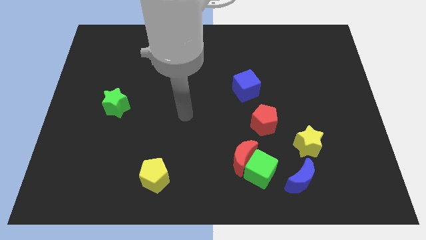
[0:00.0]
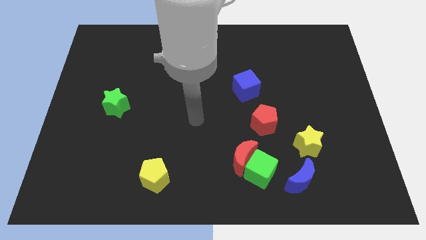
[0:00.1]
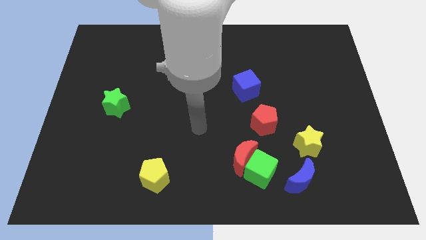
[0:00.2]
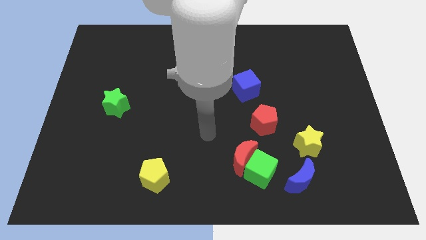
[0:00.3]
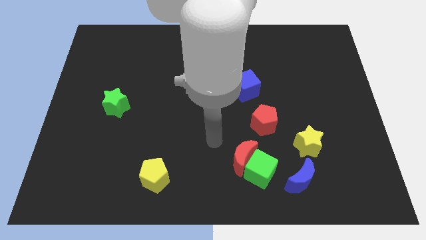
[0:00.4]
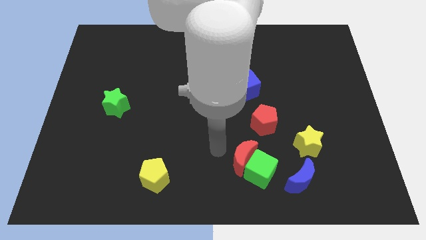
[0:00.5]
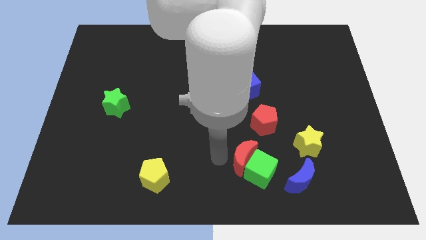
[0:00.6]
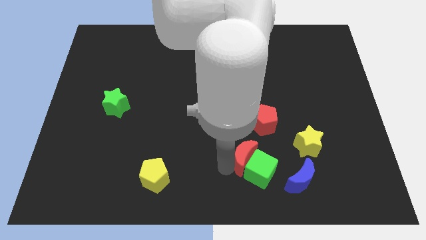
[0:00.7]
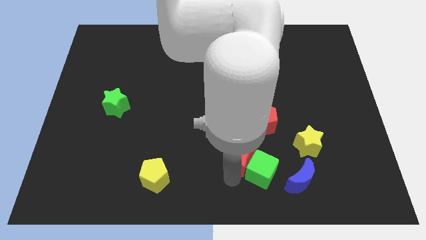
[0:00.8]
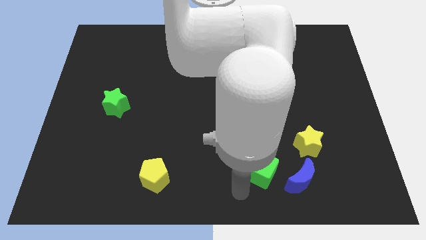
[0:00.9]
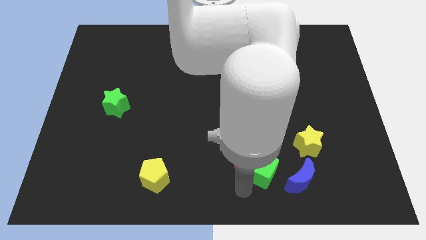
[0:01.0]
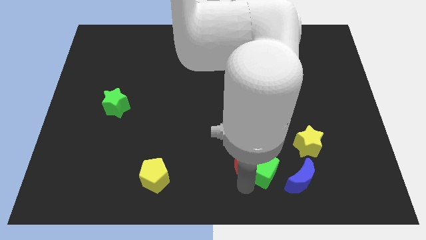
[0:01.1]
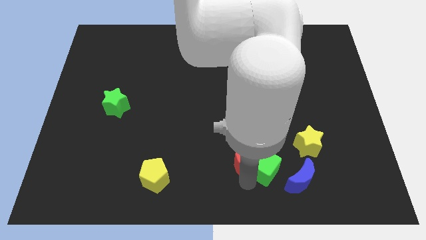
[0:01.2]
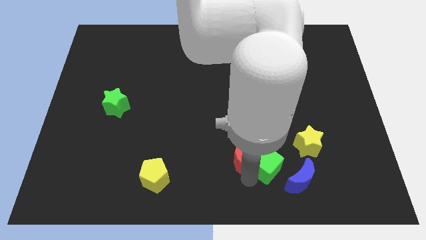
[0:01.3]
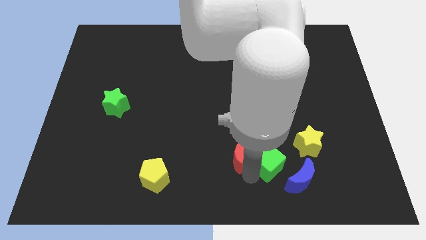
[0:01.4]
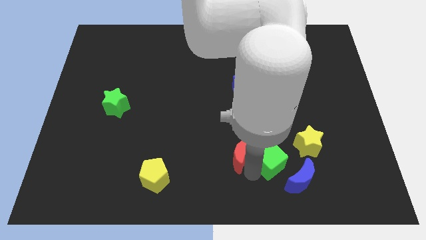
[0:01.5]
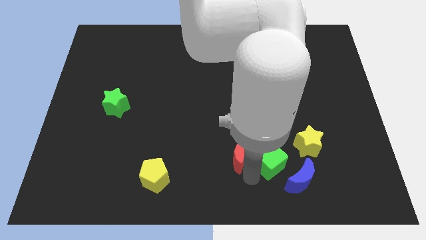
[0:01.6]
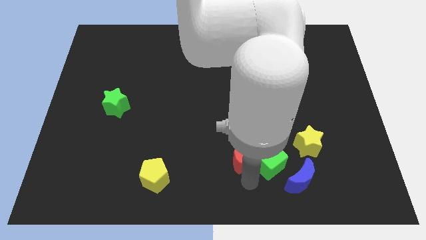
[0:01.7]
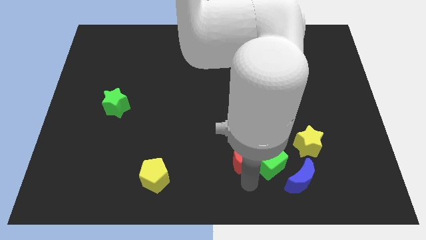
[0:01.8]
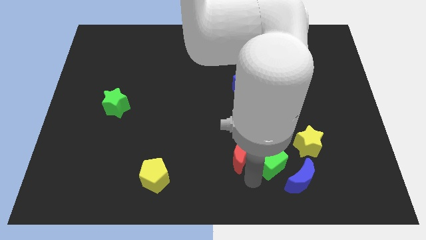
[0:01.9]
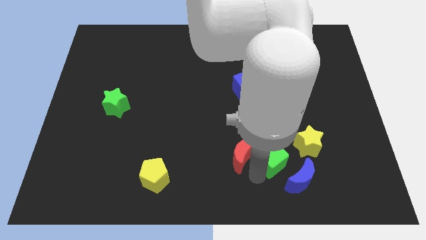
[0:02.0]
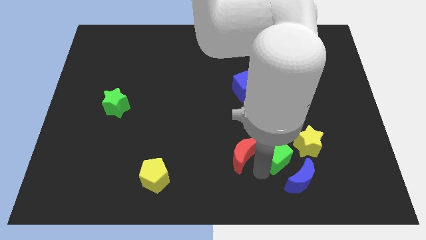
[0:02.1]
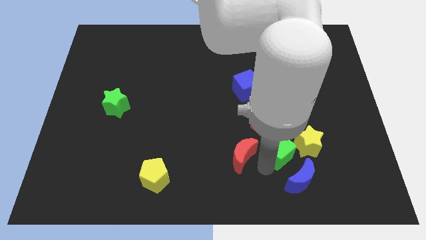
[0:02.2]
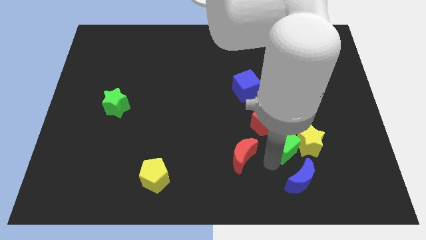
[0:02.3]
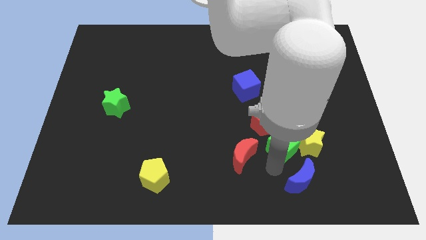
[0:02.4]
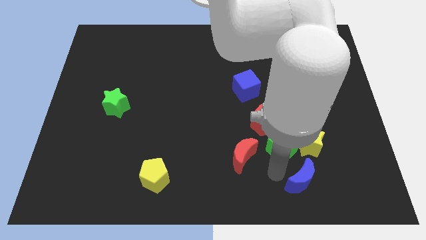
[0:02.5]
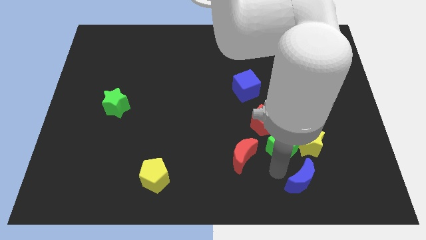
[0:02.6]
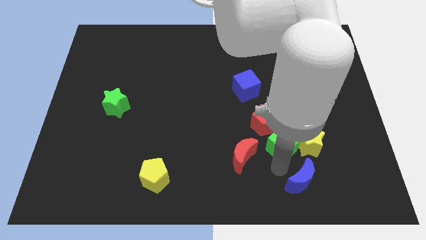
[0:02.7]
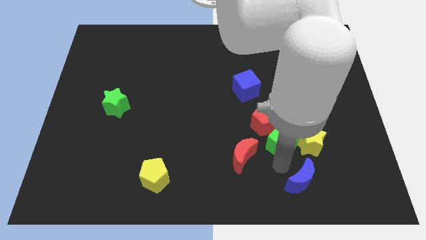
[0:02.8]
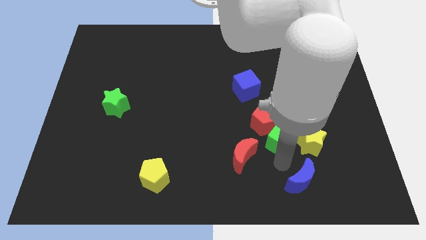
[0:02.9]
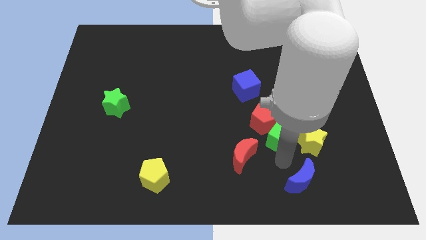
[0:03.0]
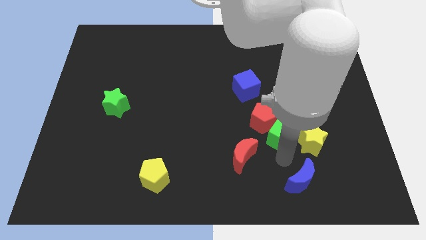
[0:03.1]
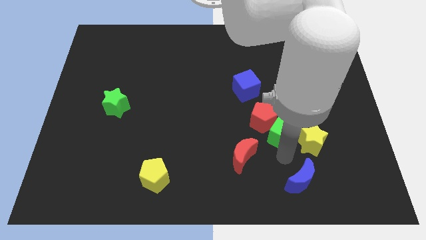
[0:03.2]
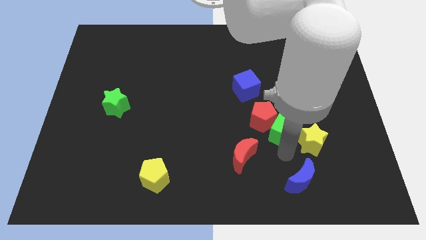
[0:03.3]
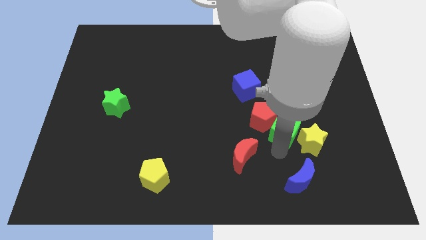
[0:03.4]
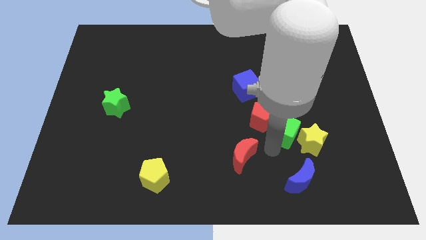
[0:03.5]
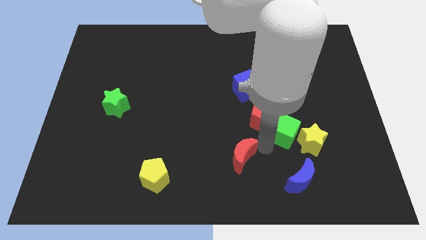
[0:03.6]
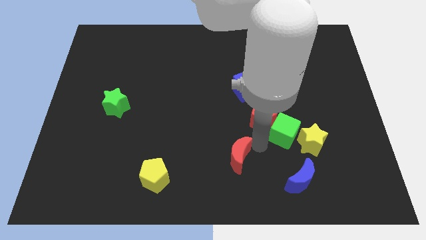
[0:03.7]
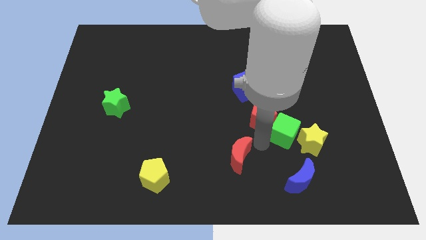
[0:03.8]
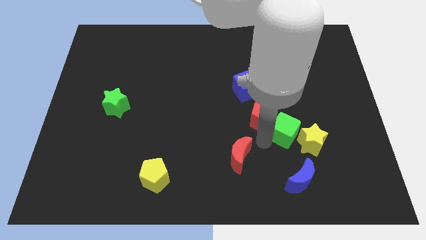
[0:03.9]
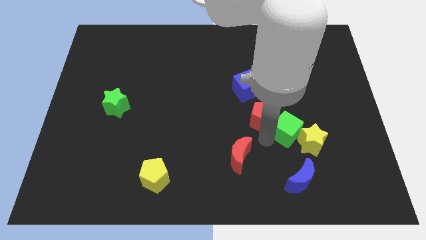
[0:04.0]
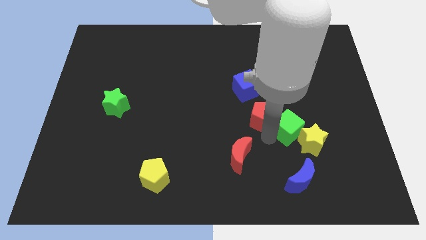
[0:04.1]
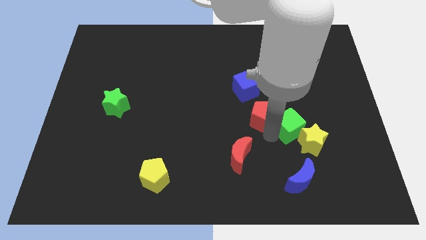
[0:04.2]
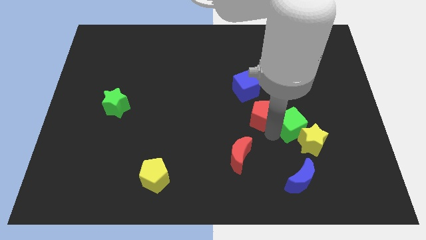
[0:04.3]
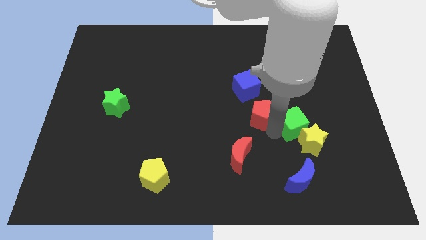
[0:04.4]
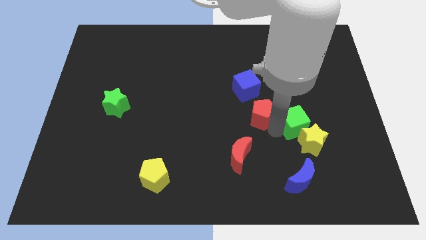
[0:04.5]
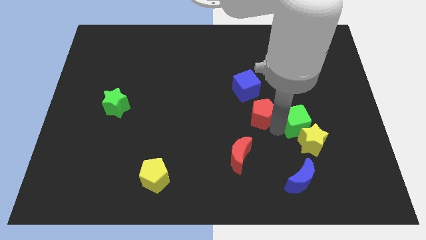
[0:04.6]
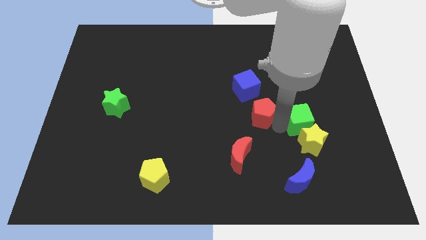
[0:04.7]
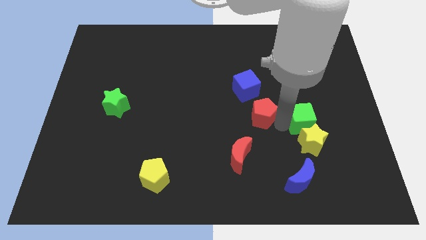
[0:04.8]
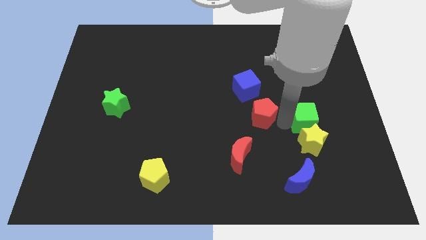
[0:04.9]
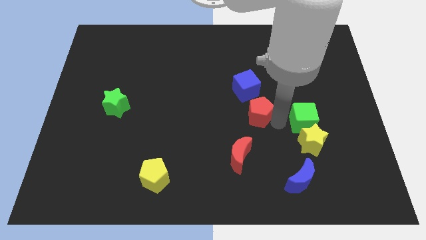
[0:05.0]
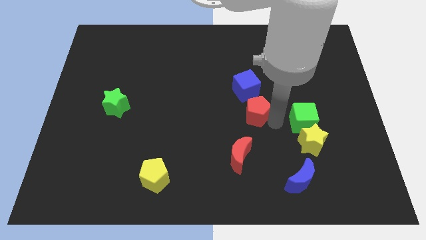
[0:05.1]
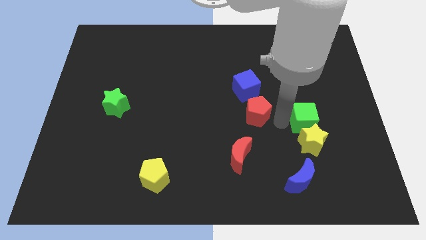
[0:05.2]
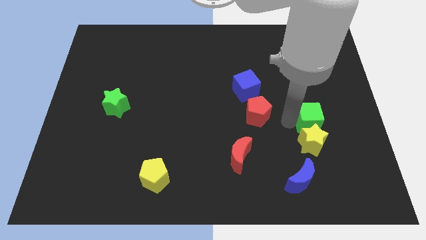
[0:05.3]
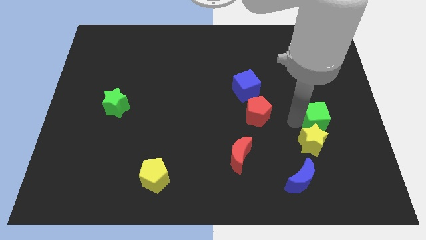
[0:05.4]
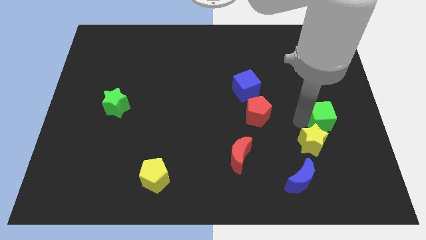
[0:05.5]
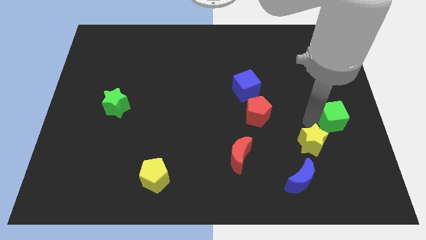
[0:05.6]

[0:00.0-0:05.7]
put the green cube to the right side

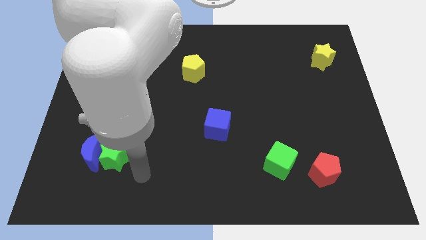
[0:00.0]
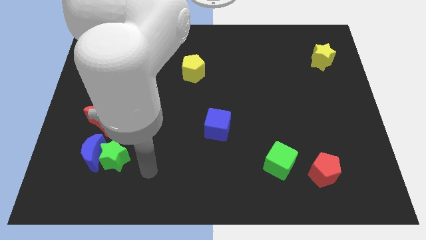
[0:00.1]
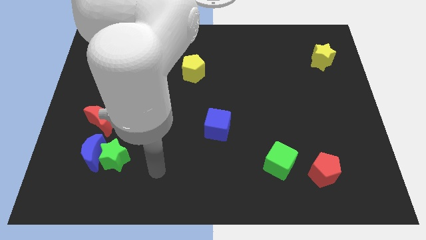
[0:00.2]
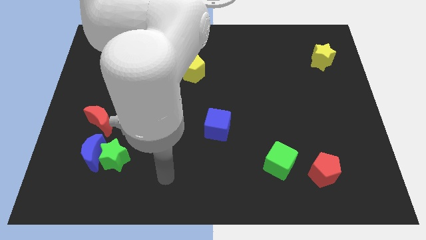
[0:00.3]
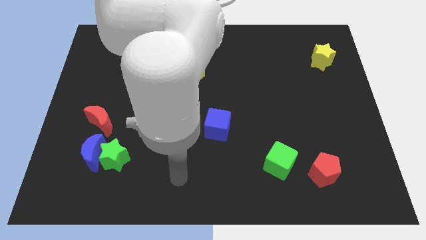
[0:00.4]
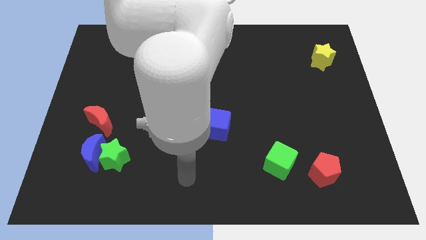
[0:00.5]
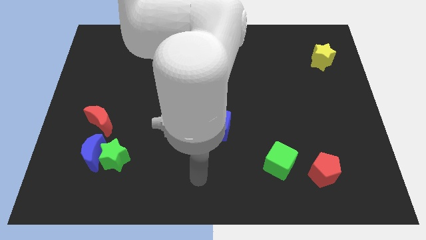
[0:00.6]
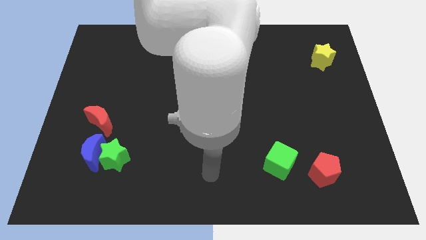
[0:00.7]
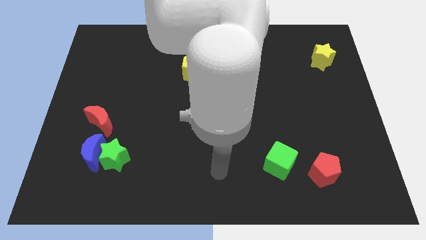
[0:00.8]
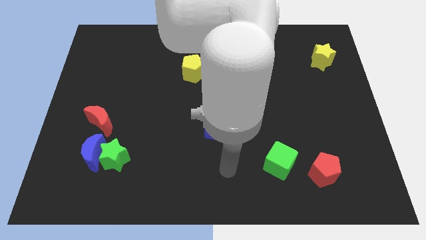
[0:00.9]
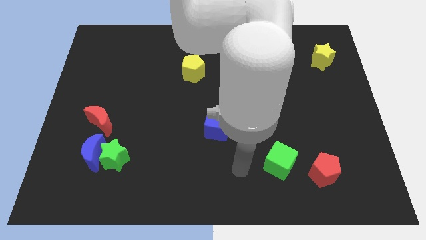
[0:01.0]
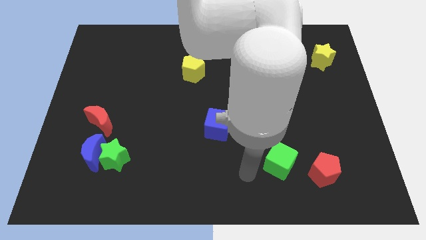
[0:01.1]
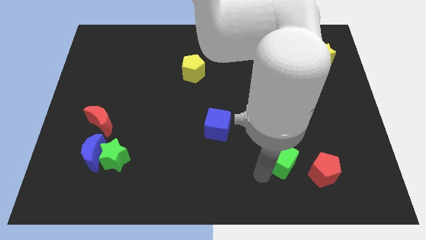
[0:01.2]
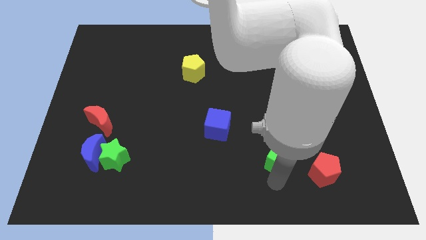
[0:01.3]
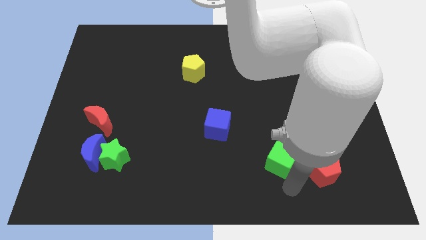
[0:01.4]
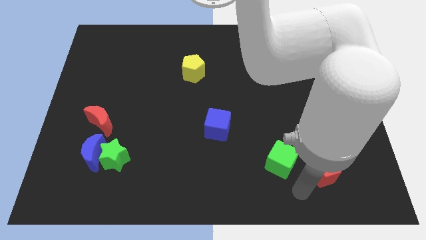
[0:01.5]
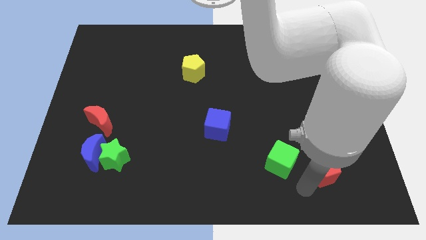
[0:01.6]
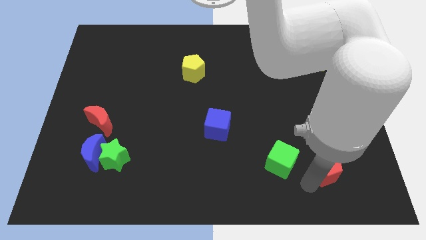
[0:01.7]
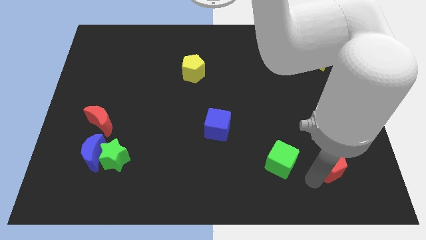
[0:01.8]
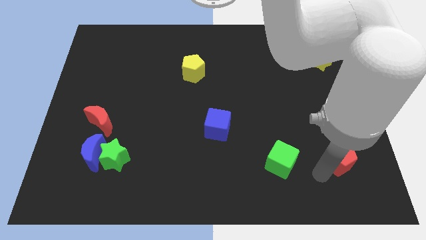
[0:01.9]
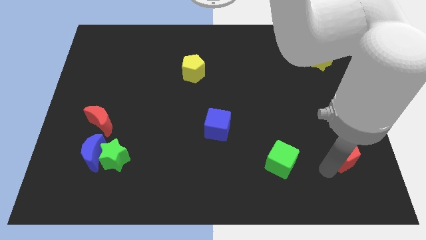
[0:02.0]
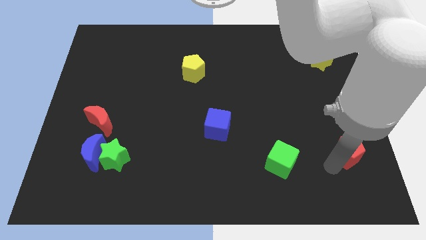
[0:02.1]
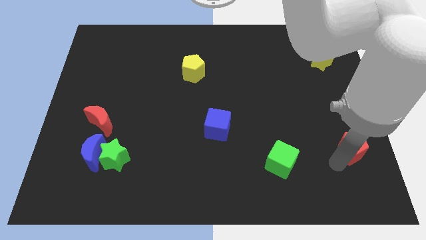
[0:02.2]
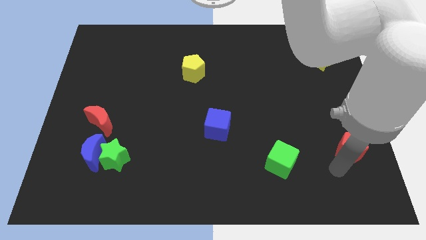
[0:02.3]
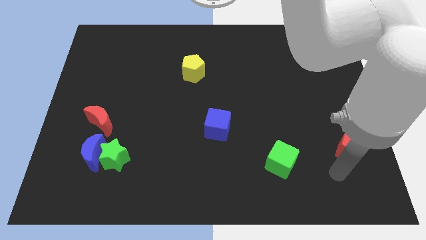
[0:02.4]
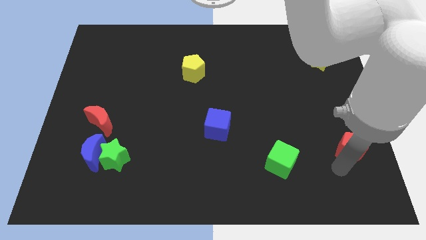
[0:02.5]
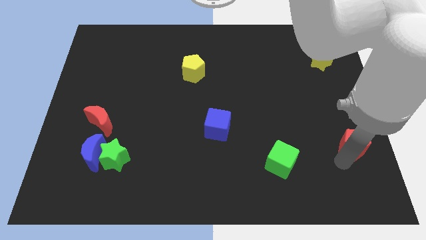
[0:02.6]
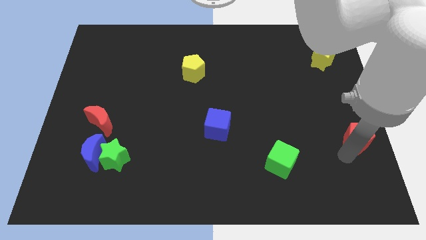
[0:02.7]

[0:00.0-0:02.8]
slide the red pentagon to the right side
